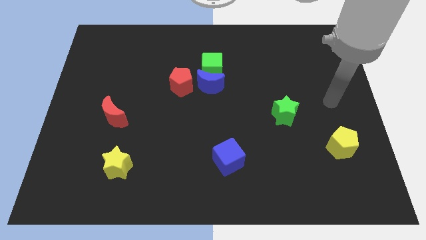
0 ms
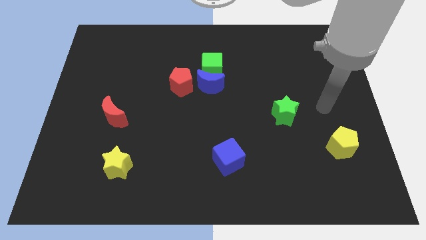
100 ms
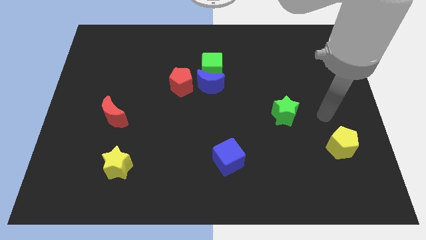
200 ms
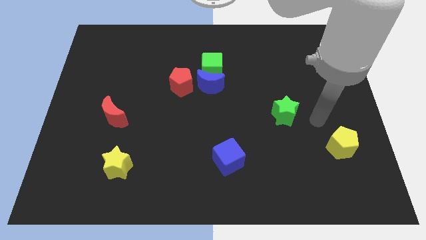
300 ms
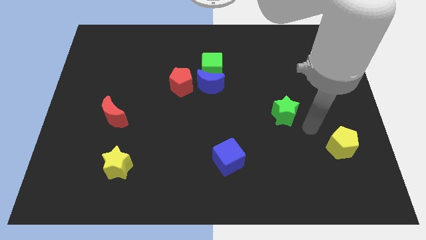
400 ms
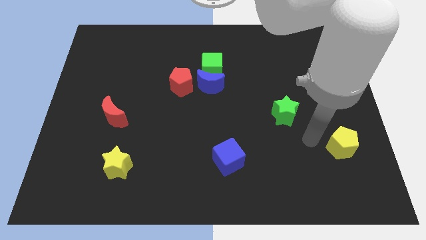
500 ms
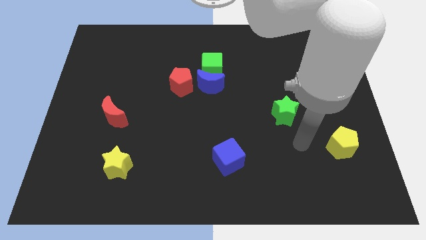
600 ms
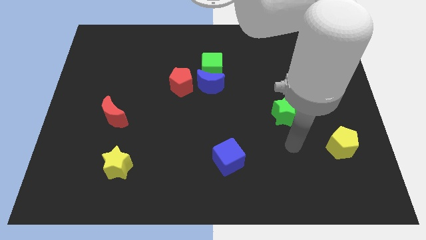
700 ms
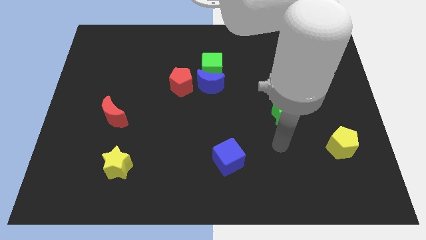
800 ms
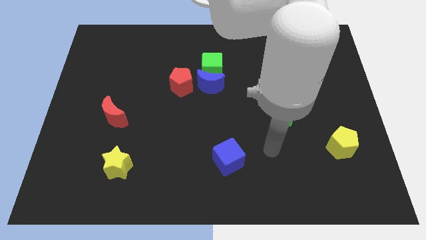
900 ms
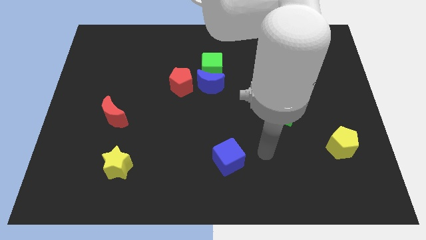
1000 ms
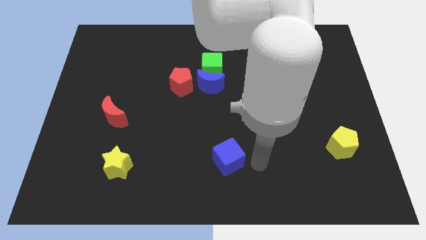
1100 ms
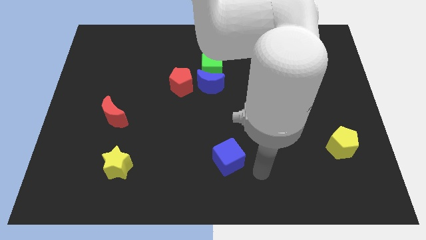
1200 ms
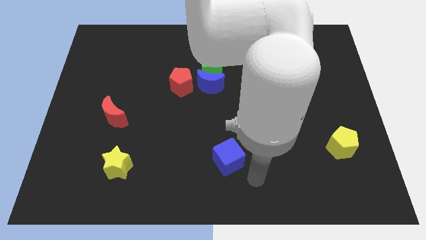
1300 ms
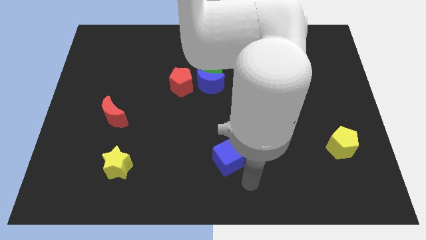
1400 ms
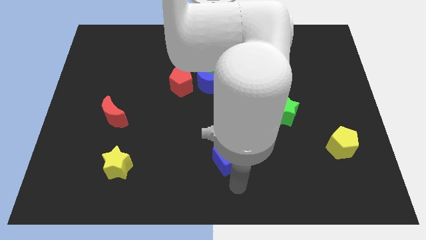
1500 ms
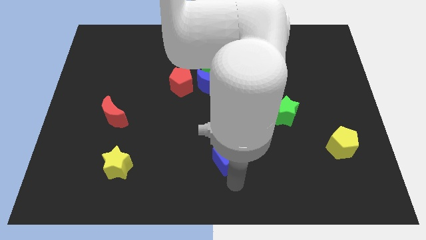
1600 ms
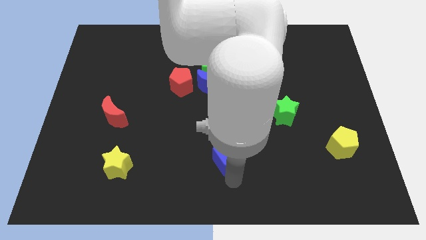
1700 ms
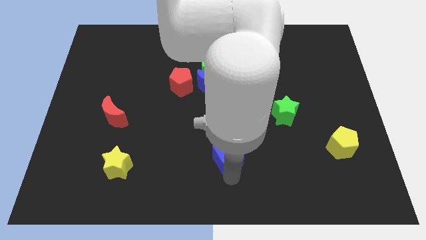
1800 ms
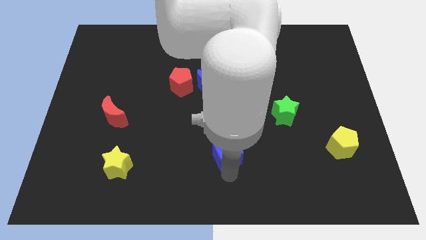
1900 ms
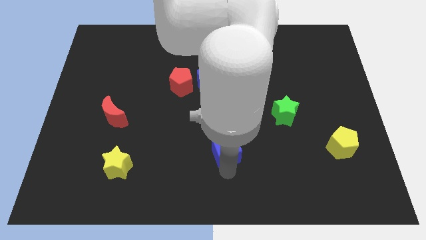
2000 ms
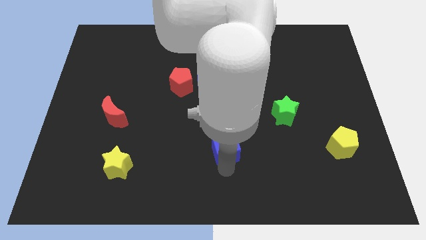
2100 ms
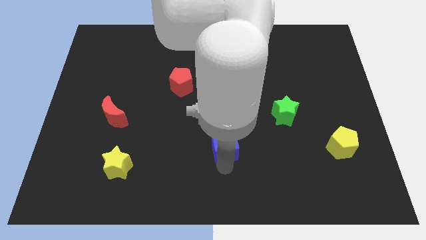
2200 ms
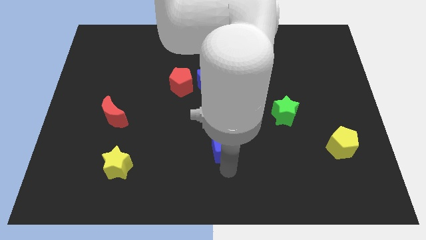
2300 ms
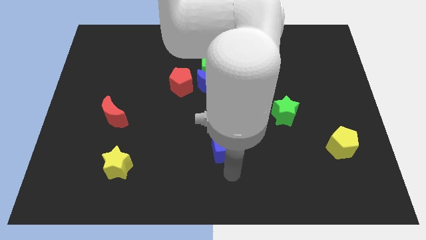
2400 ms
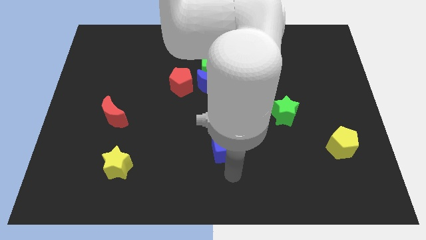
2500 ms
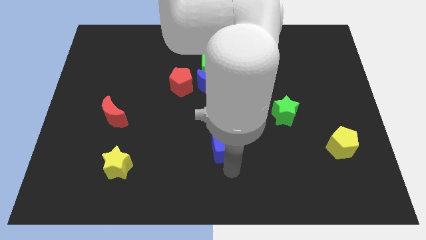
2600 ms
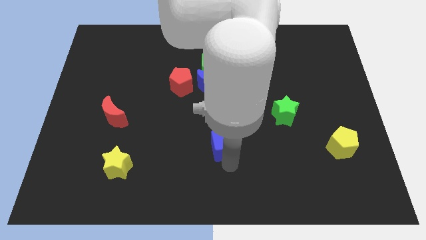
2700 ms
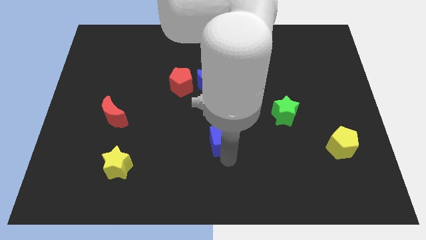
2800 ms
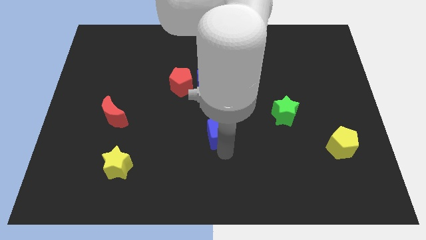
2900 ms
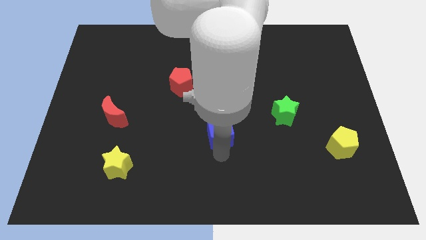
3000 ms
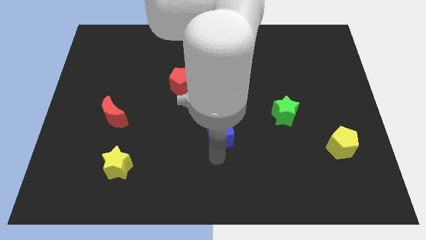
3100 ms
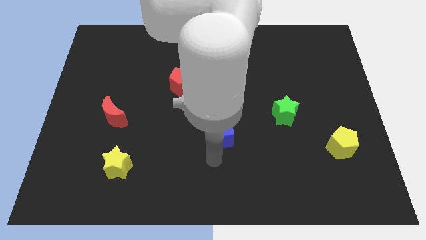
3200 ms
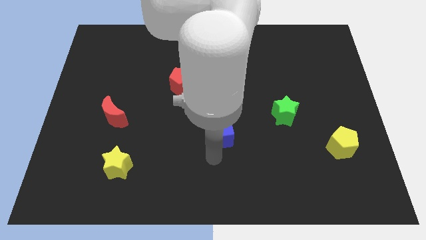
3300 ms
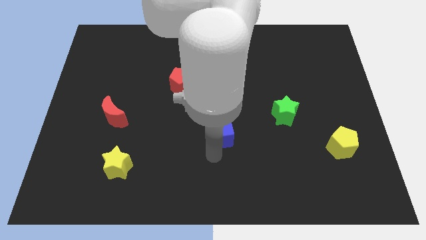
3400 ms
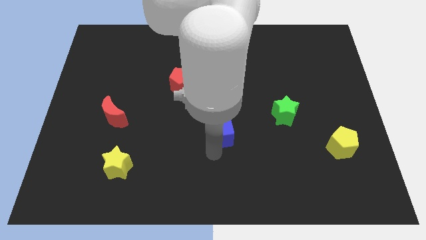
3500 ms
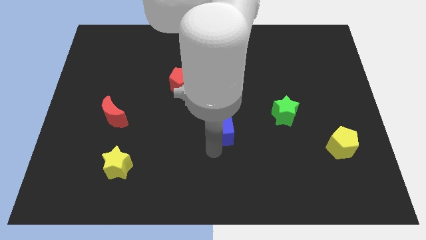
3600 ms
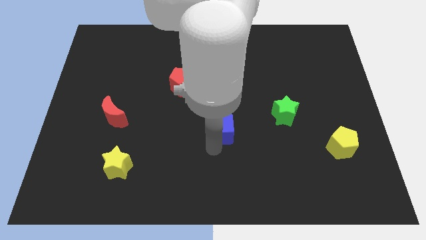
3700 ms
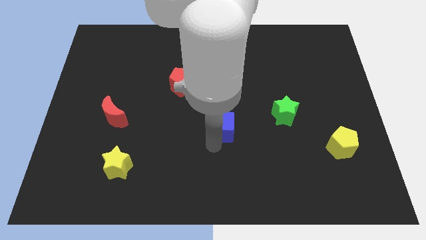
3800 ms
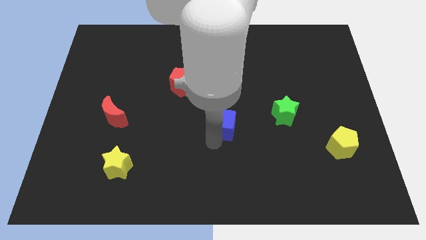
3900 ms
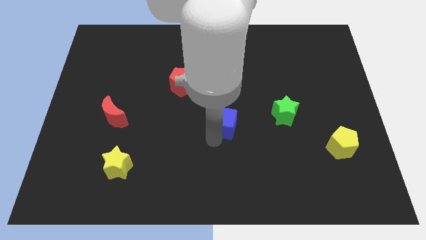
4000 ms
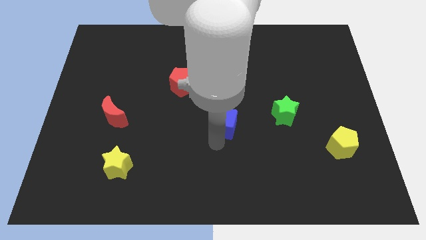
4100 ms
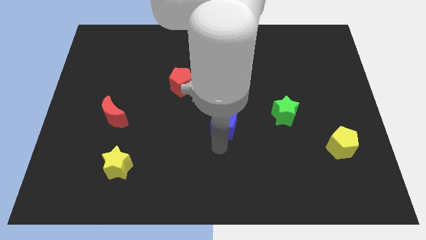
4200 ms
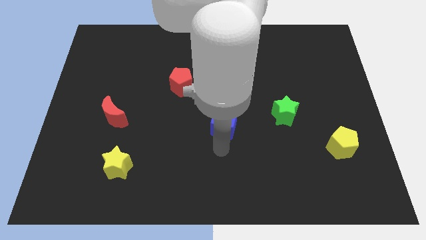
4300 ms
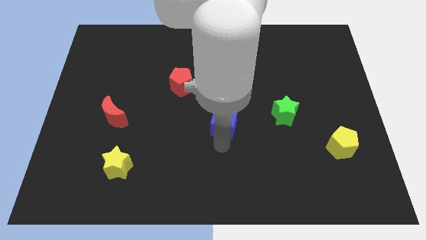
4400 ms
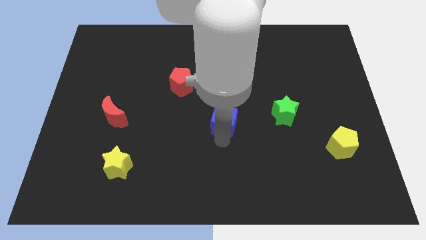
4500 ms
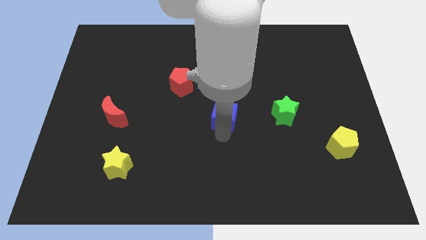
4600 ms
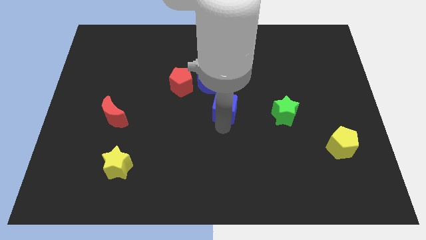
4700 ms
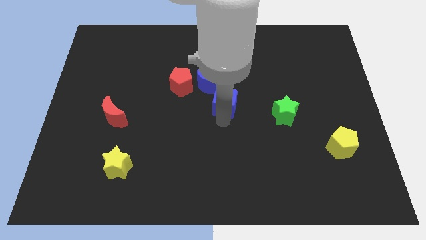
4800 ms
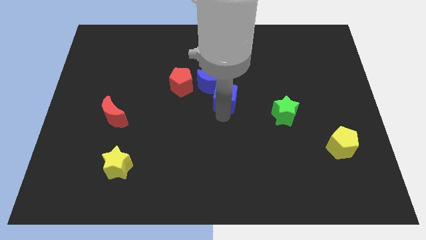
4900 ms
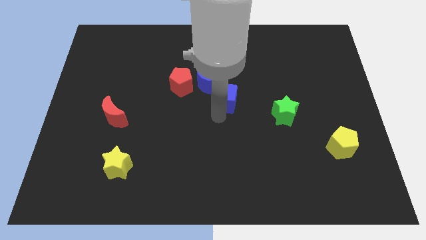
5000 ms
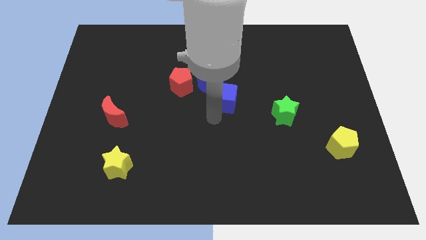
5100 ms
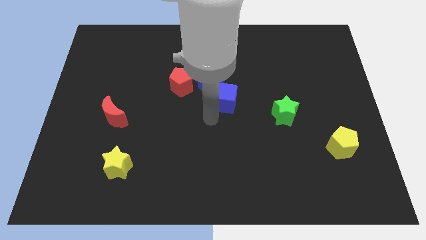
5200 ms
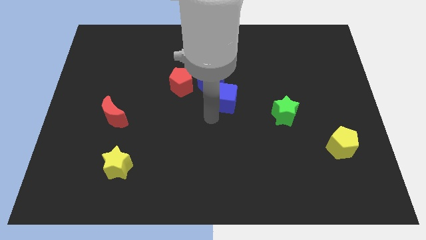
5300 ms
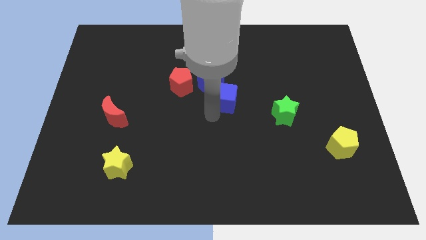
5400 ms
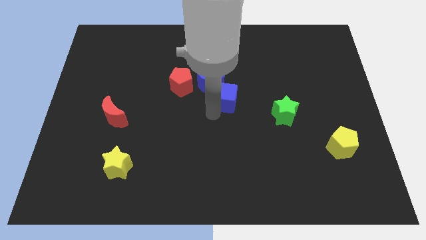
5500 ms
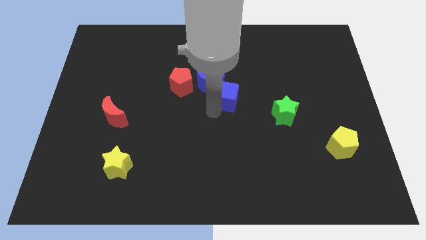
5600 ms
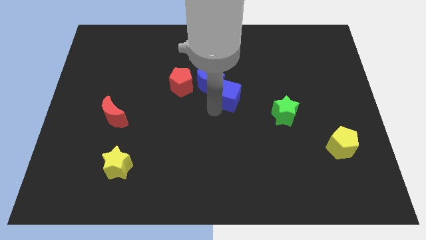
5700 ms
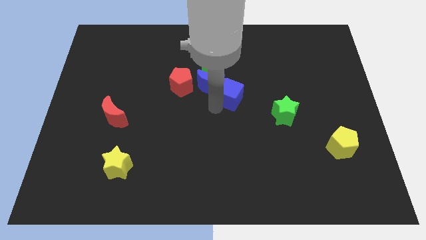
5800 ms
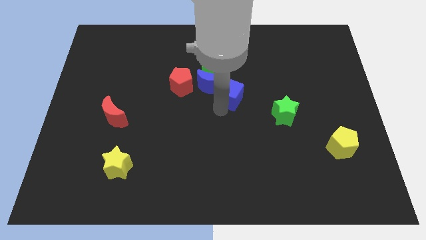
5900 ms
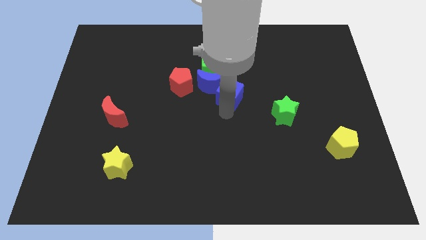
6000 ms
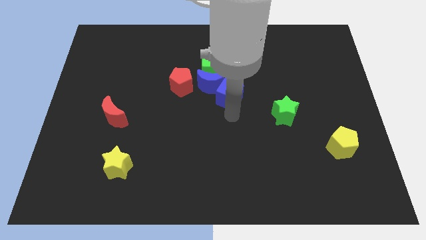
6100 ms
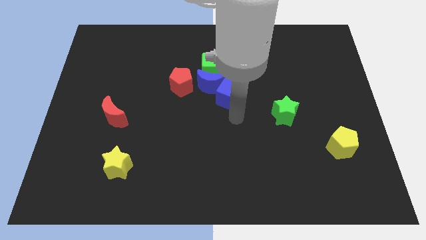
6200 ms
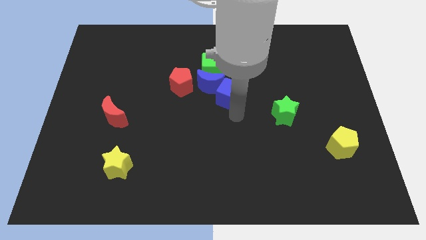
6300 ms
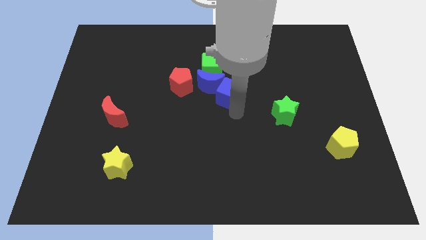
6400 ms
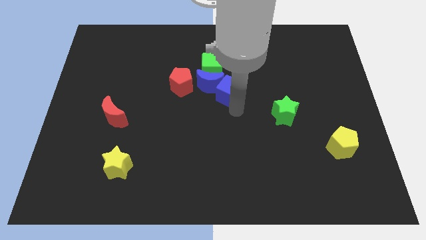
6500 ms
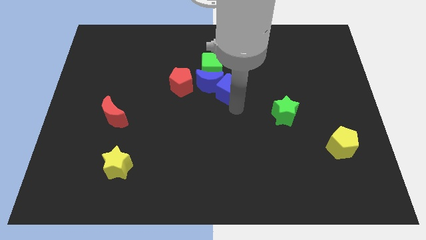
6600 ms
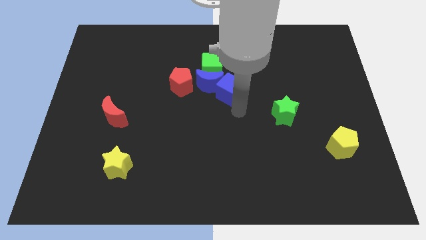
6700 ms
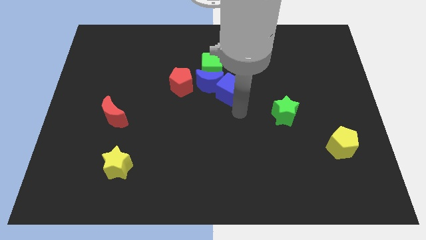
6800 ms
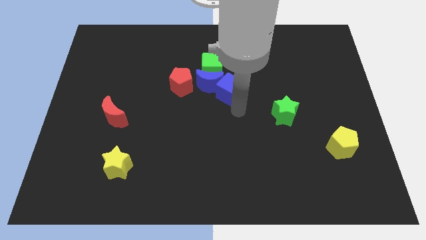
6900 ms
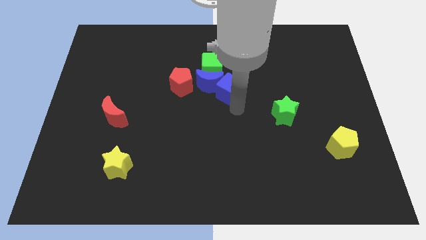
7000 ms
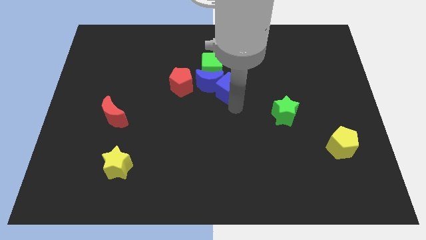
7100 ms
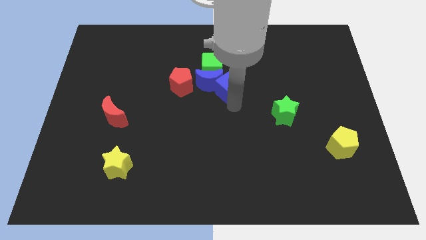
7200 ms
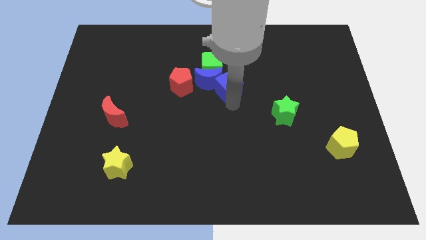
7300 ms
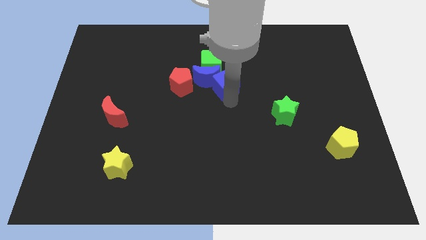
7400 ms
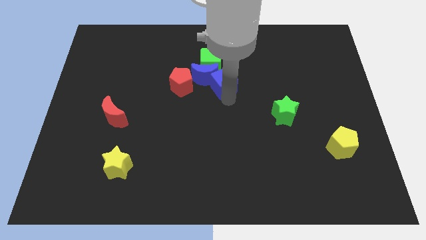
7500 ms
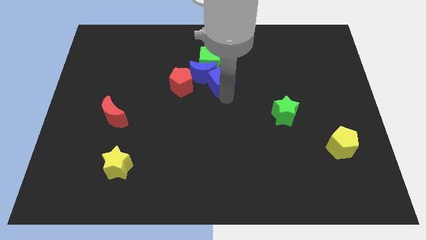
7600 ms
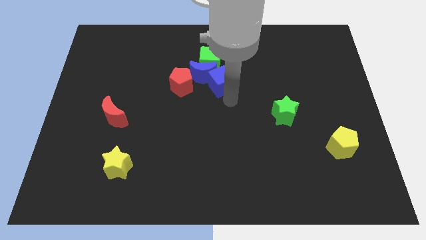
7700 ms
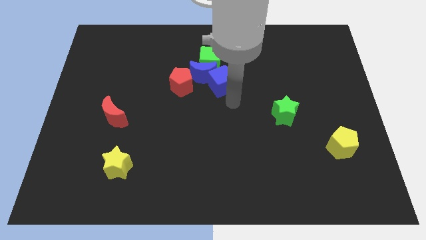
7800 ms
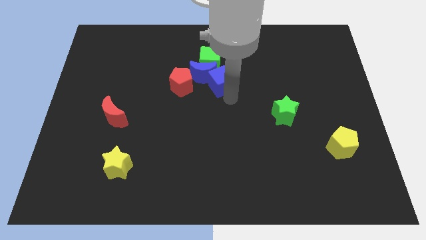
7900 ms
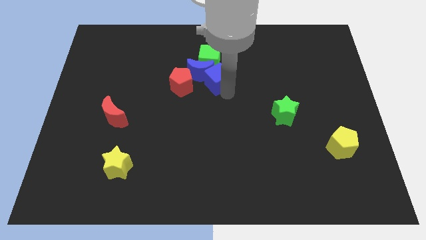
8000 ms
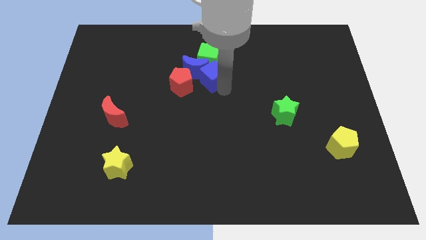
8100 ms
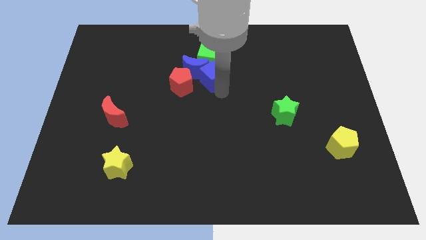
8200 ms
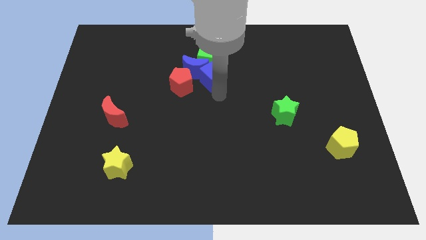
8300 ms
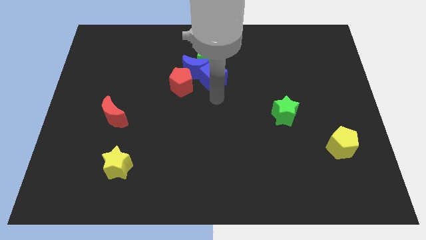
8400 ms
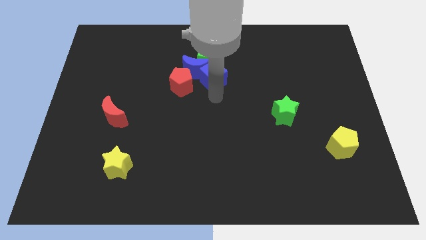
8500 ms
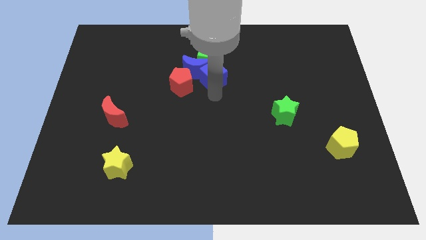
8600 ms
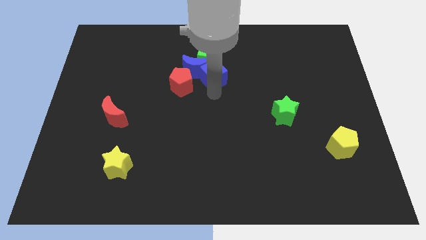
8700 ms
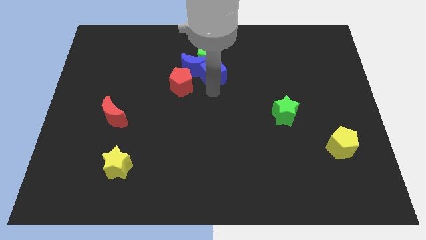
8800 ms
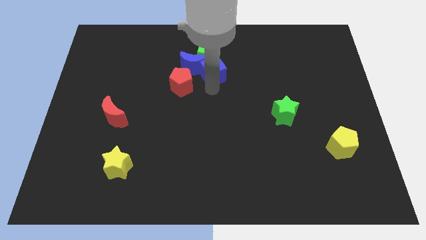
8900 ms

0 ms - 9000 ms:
push the blue cube close to the green cube
